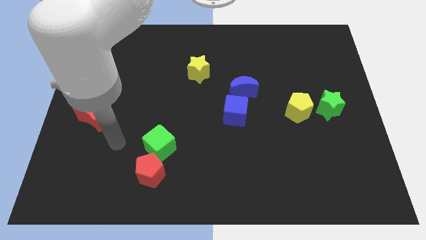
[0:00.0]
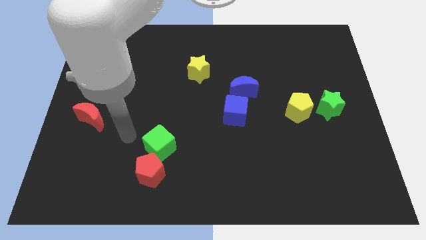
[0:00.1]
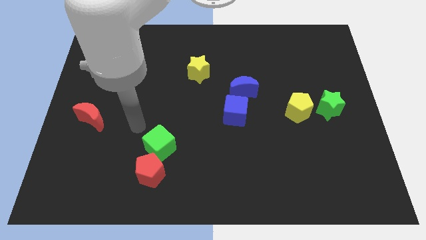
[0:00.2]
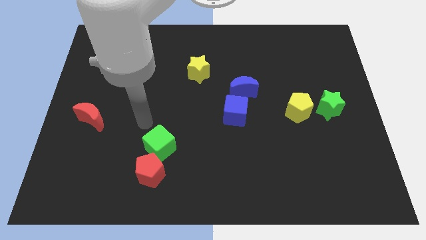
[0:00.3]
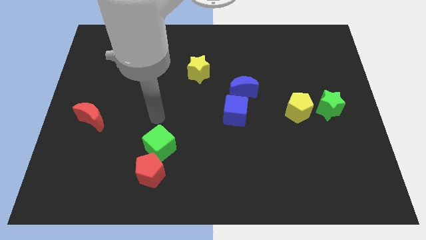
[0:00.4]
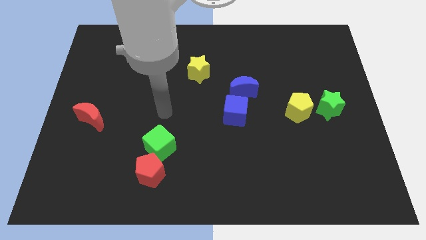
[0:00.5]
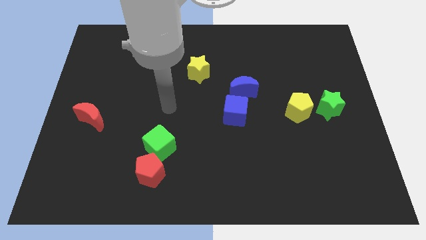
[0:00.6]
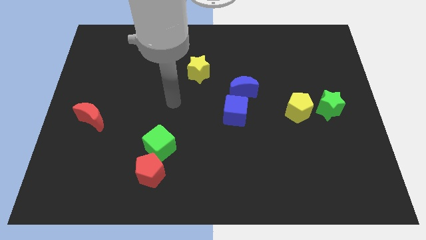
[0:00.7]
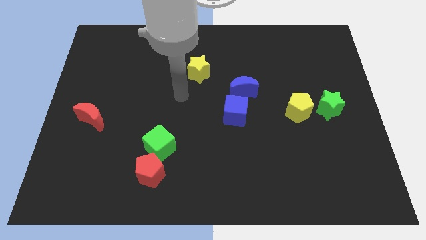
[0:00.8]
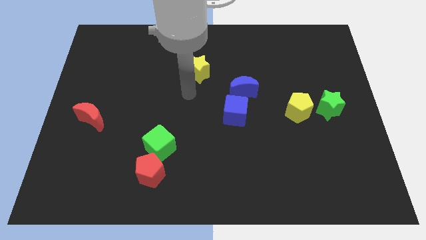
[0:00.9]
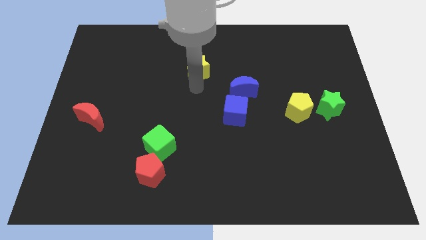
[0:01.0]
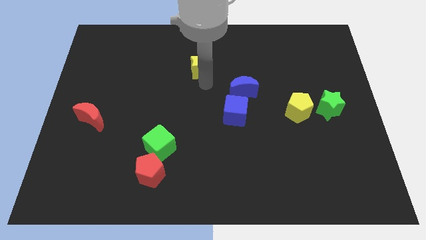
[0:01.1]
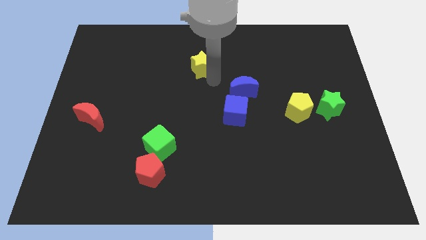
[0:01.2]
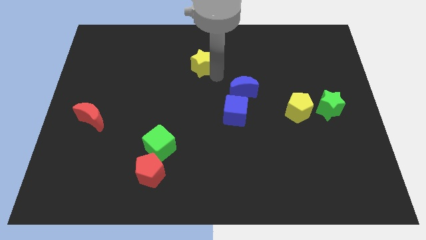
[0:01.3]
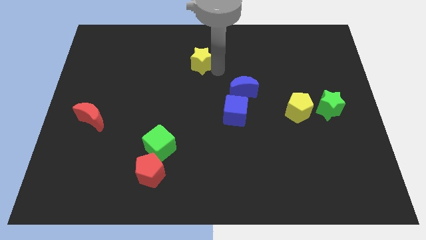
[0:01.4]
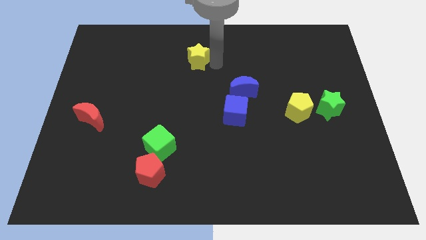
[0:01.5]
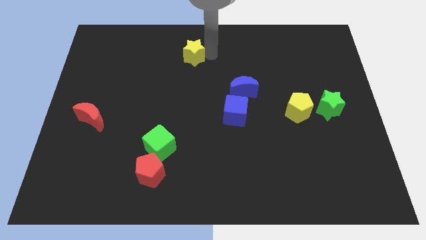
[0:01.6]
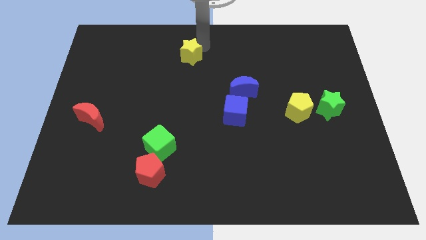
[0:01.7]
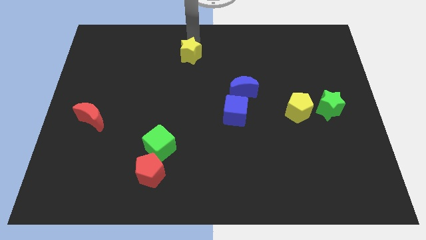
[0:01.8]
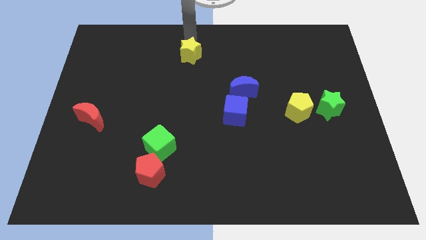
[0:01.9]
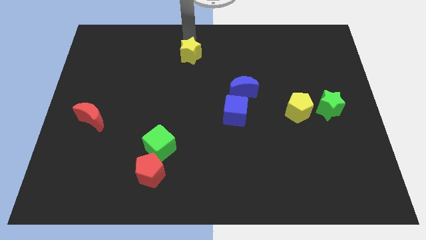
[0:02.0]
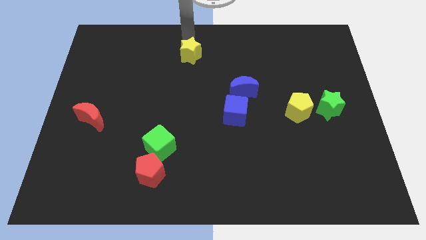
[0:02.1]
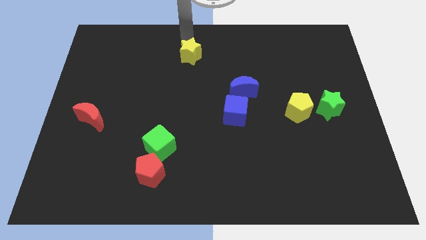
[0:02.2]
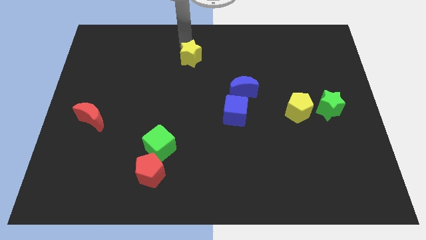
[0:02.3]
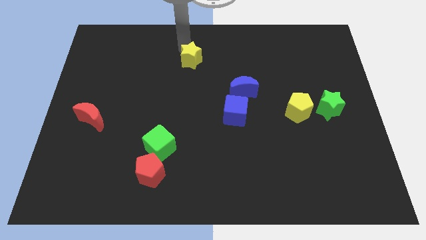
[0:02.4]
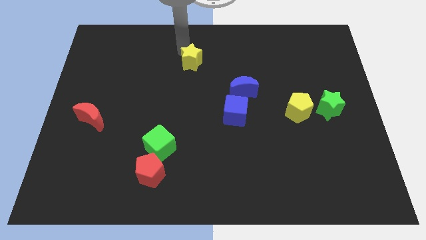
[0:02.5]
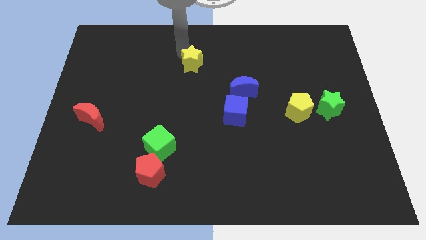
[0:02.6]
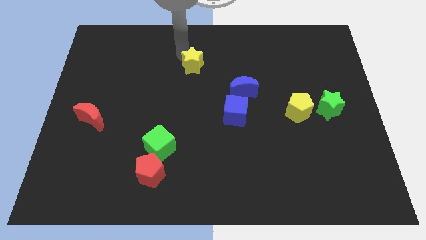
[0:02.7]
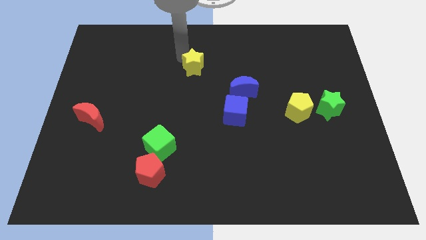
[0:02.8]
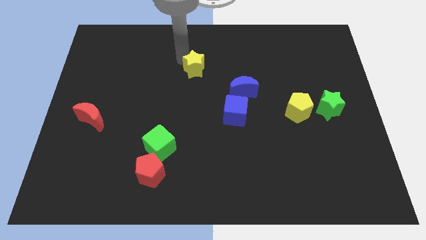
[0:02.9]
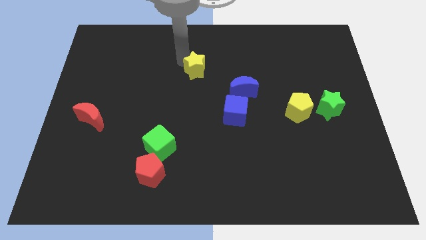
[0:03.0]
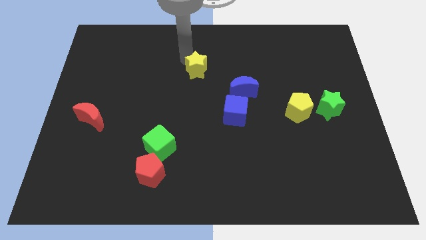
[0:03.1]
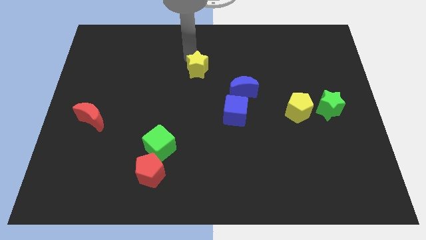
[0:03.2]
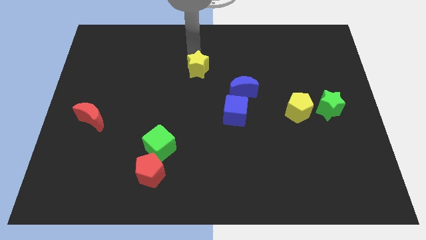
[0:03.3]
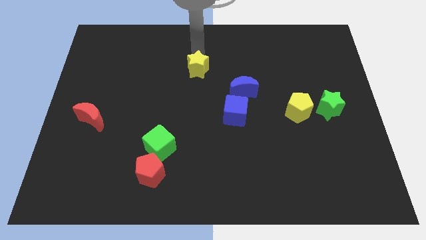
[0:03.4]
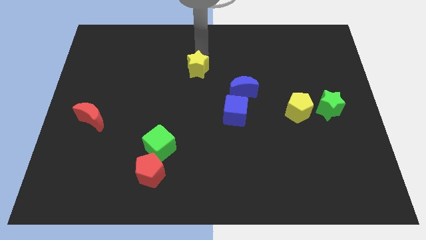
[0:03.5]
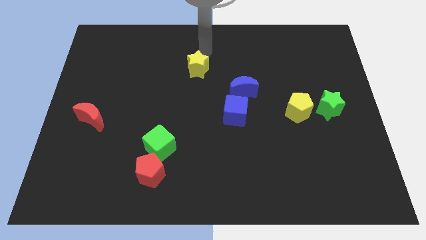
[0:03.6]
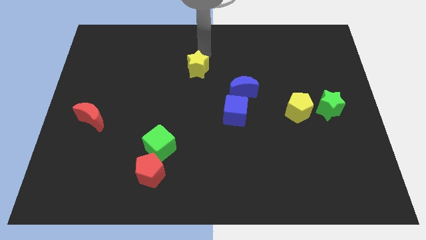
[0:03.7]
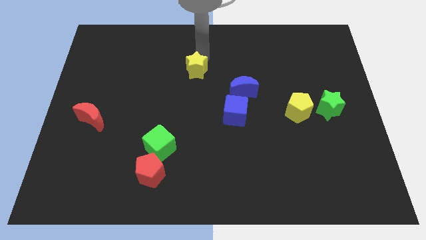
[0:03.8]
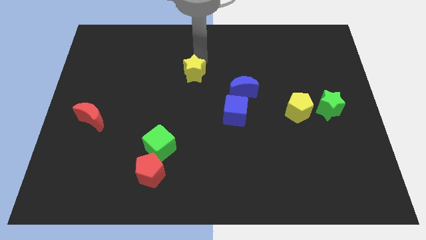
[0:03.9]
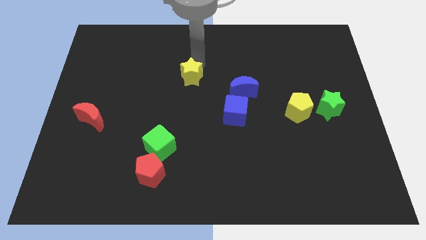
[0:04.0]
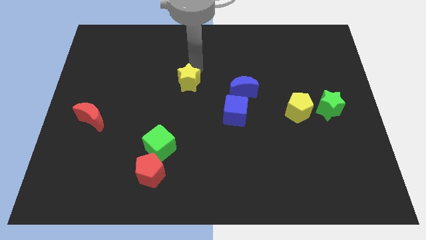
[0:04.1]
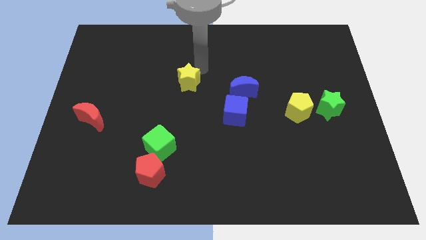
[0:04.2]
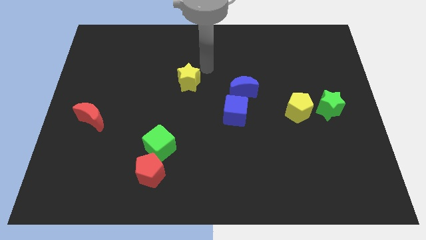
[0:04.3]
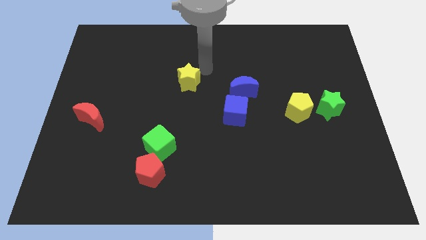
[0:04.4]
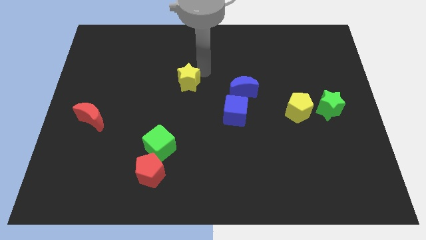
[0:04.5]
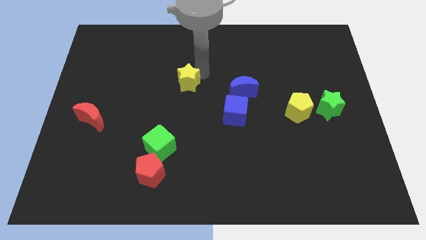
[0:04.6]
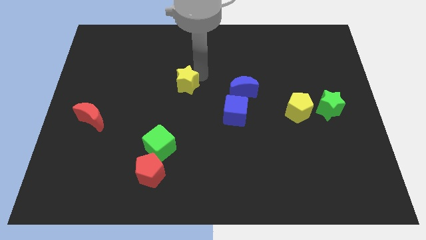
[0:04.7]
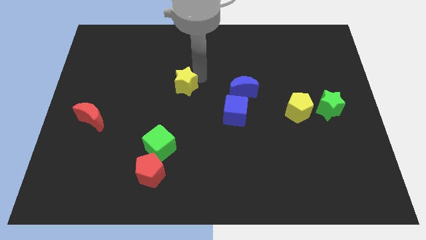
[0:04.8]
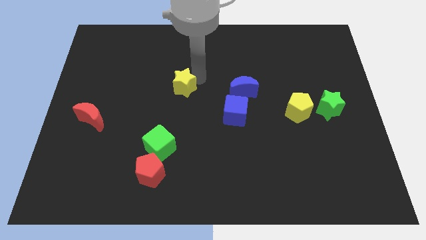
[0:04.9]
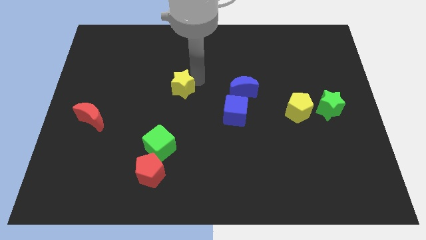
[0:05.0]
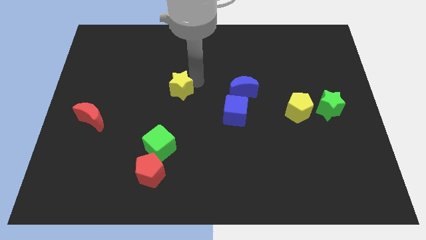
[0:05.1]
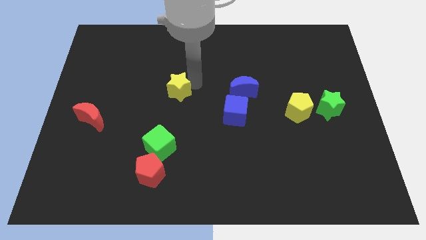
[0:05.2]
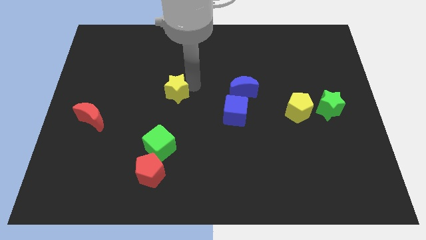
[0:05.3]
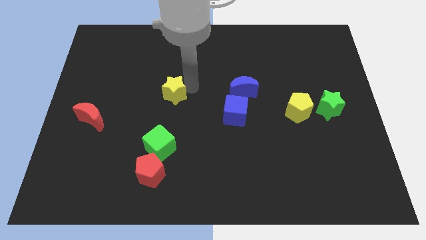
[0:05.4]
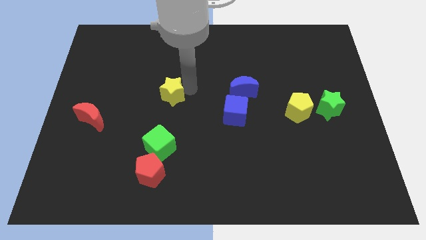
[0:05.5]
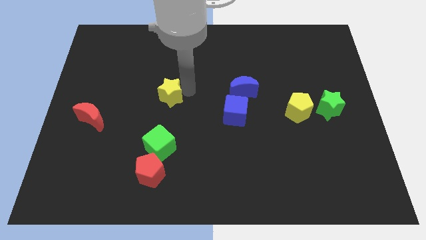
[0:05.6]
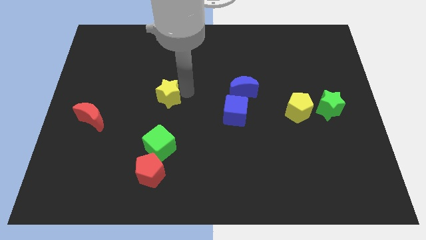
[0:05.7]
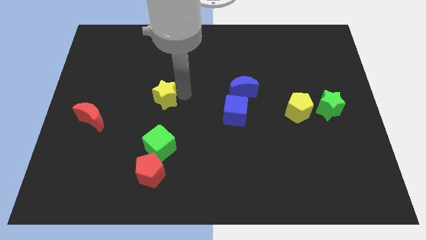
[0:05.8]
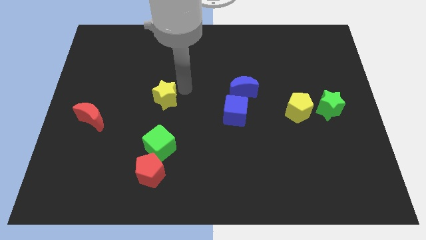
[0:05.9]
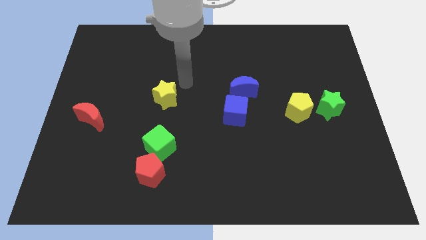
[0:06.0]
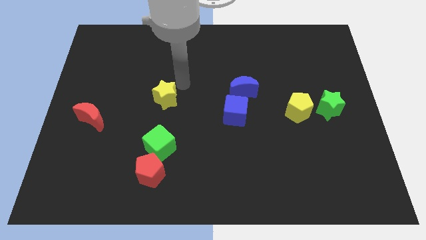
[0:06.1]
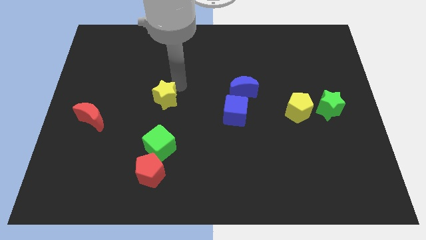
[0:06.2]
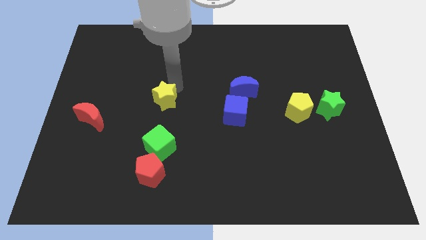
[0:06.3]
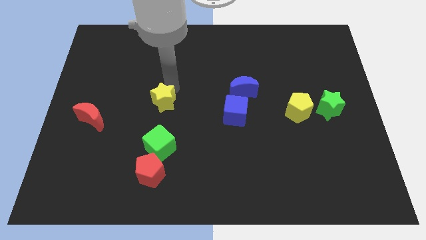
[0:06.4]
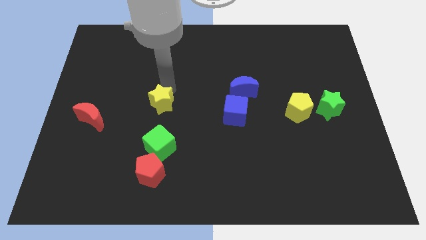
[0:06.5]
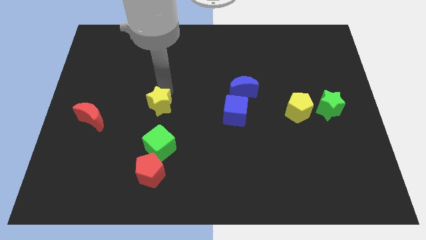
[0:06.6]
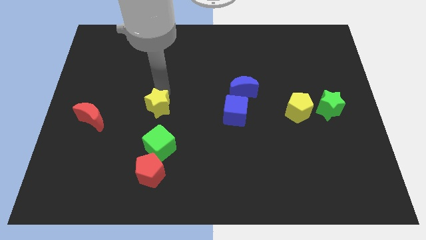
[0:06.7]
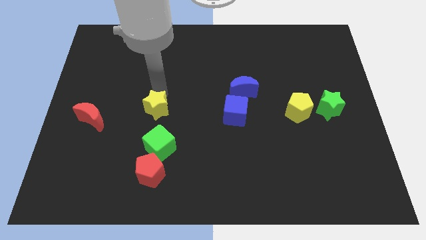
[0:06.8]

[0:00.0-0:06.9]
move the yellow star to the right side of the red moon

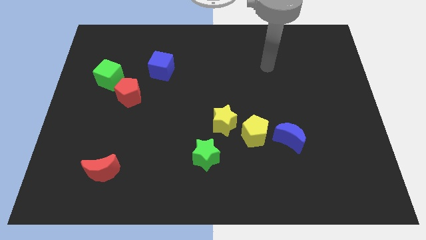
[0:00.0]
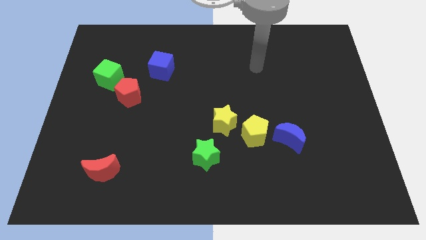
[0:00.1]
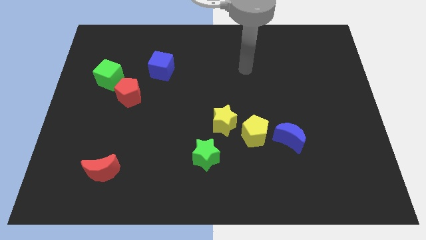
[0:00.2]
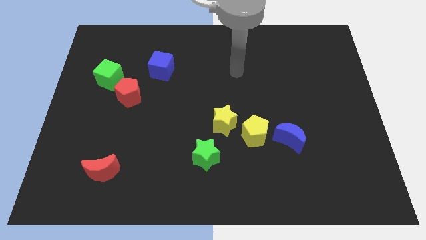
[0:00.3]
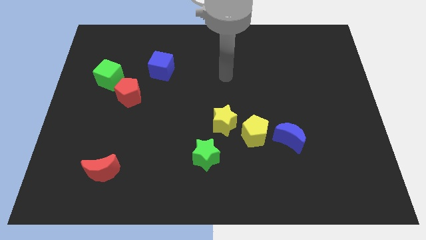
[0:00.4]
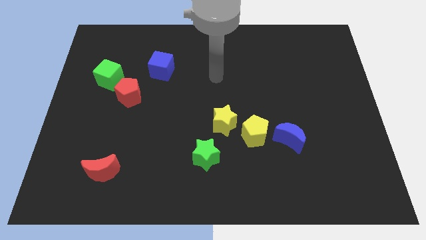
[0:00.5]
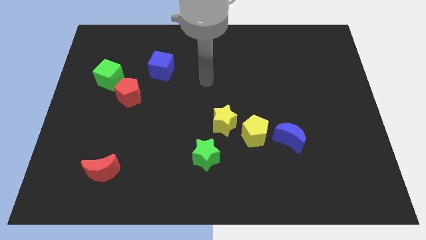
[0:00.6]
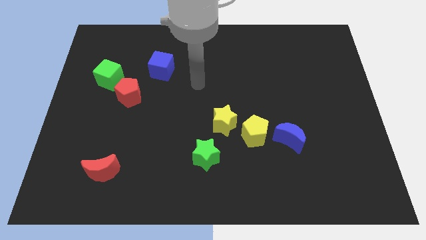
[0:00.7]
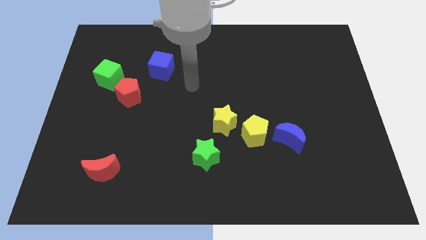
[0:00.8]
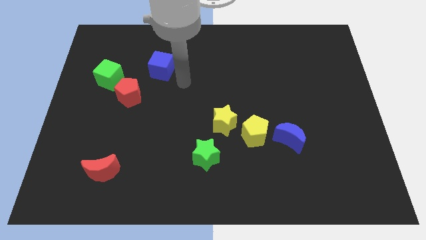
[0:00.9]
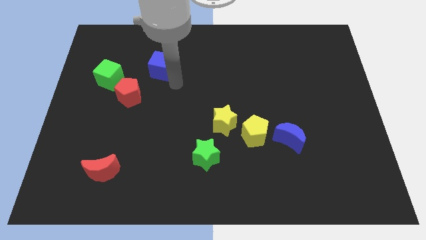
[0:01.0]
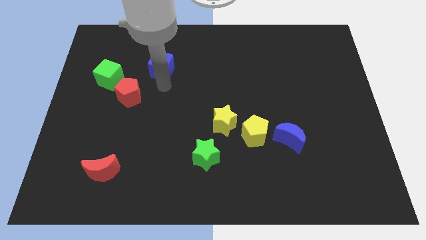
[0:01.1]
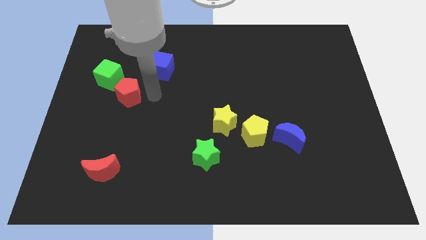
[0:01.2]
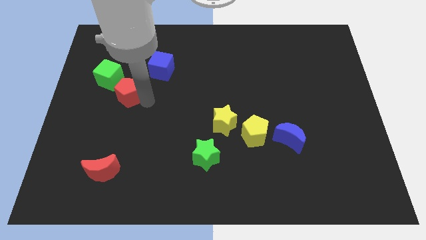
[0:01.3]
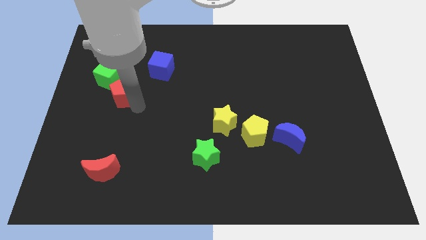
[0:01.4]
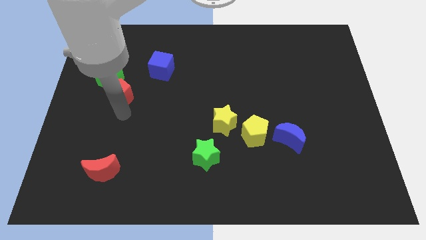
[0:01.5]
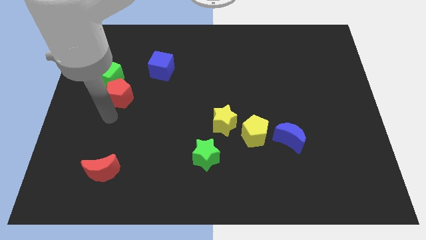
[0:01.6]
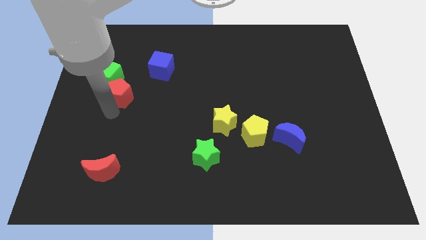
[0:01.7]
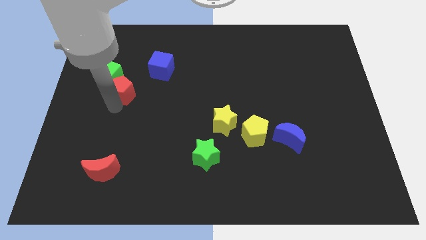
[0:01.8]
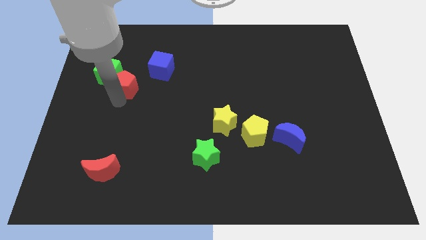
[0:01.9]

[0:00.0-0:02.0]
put the red pentagon to the right of the green cube
